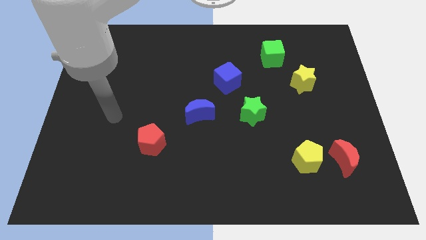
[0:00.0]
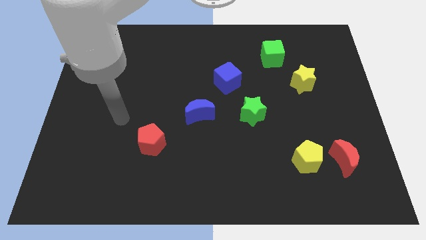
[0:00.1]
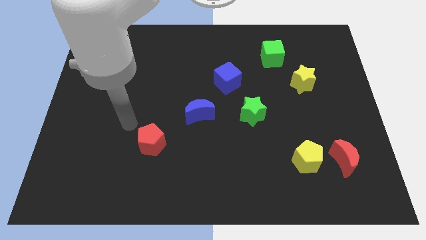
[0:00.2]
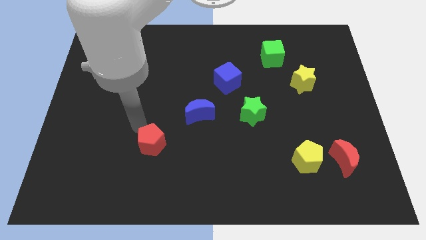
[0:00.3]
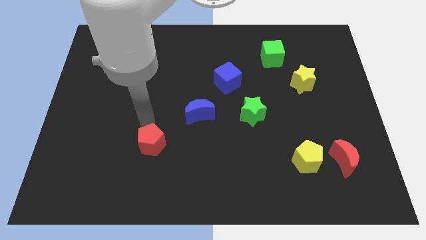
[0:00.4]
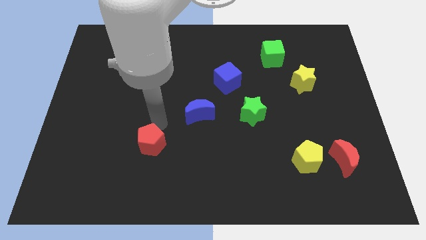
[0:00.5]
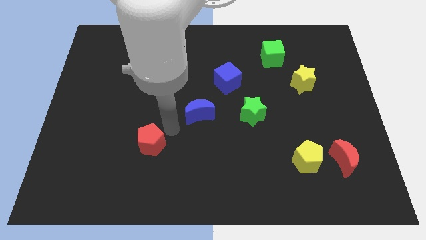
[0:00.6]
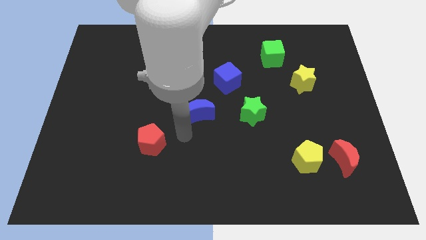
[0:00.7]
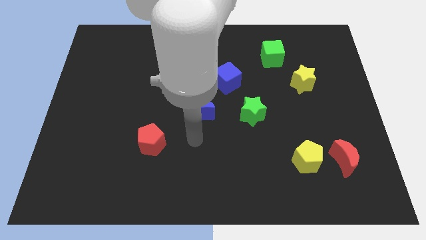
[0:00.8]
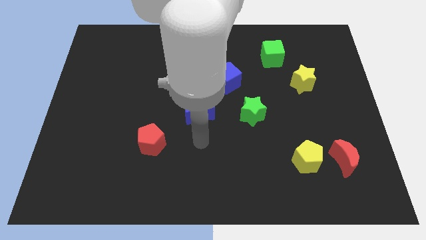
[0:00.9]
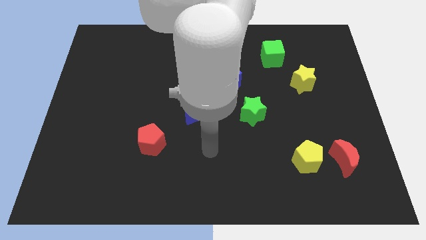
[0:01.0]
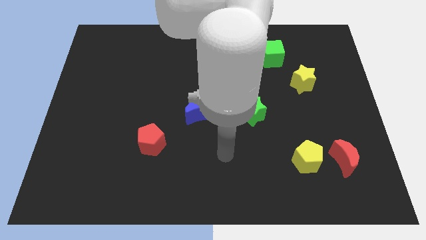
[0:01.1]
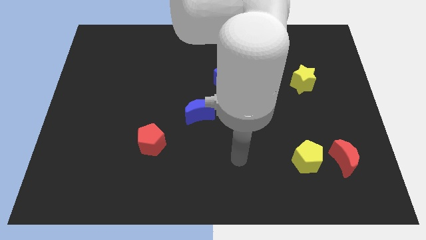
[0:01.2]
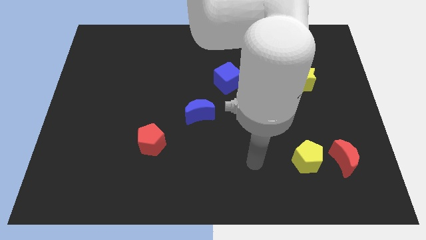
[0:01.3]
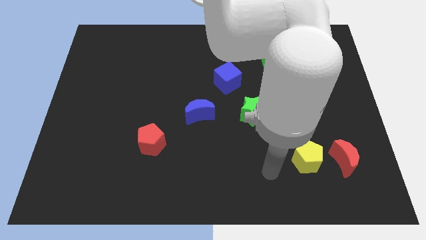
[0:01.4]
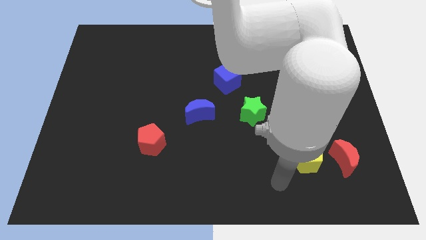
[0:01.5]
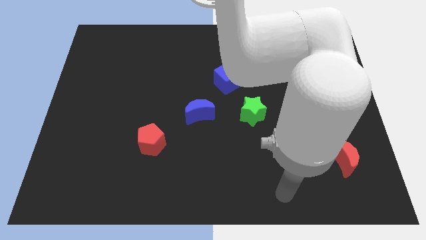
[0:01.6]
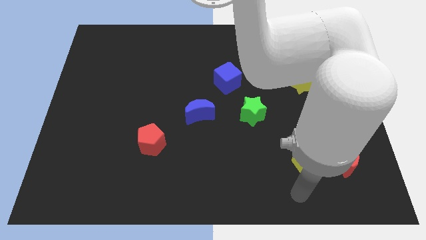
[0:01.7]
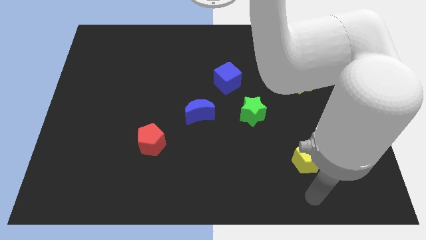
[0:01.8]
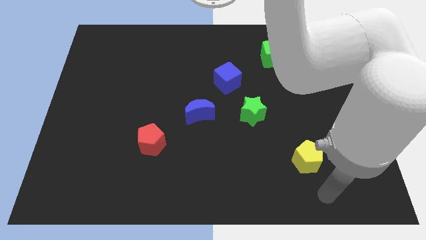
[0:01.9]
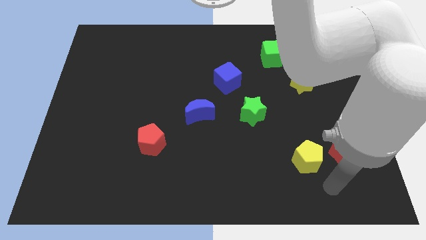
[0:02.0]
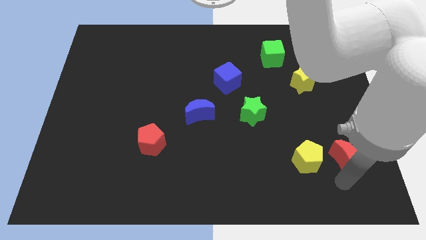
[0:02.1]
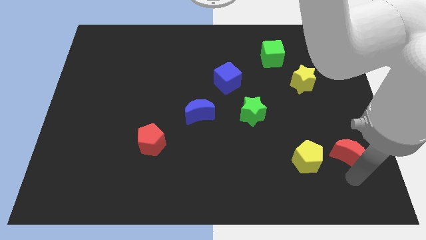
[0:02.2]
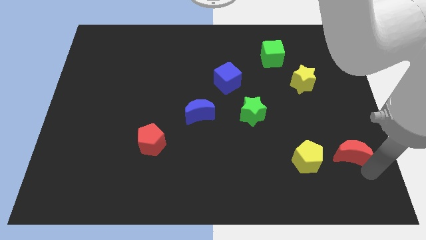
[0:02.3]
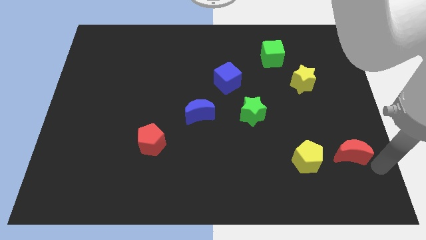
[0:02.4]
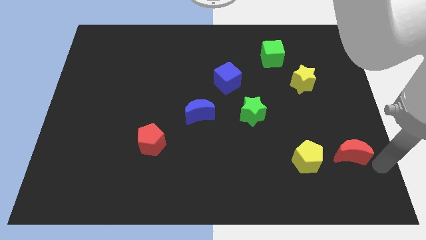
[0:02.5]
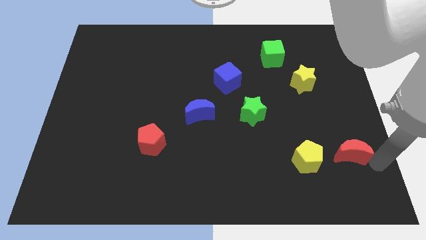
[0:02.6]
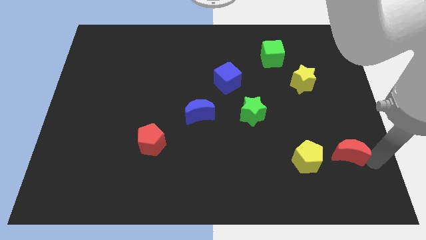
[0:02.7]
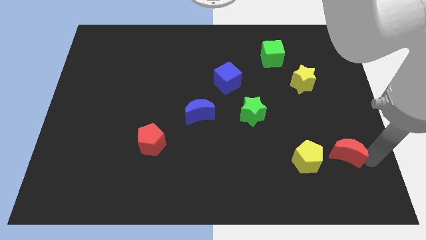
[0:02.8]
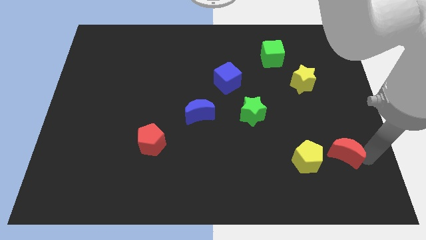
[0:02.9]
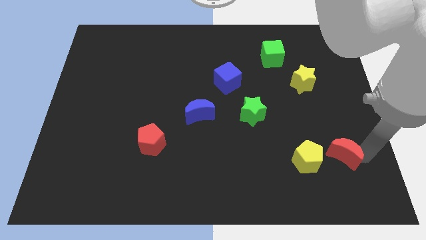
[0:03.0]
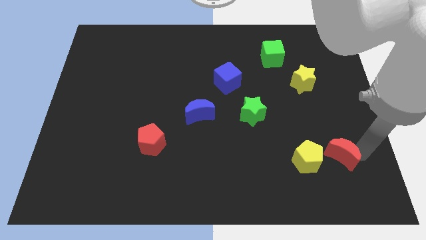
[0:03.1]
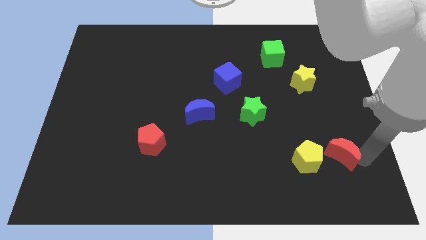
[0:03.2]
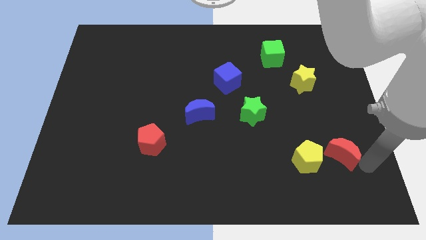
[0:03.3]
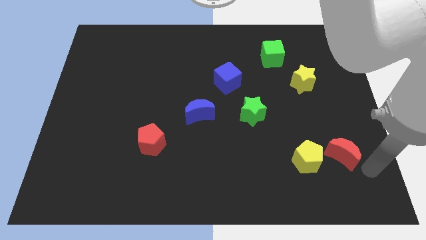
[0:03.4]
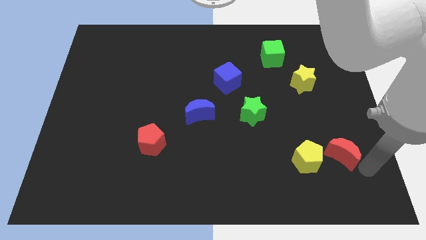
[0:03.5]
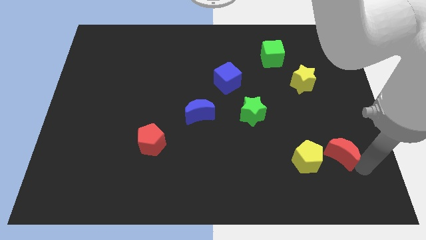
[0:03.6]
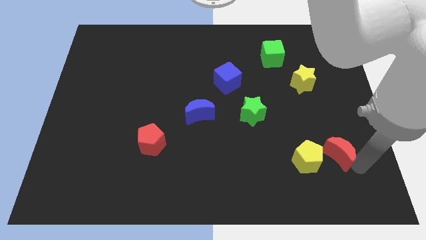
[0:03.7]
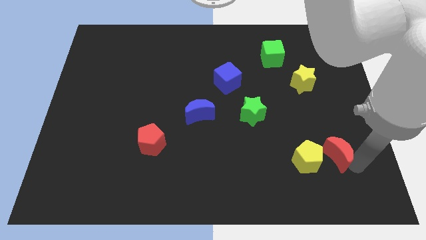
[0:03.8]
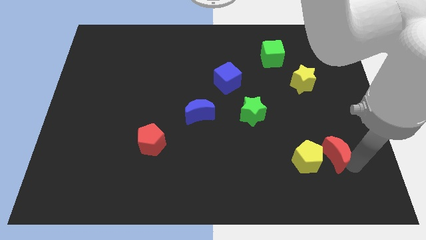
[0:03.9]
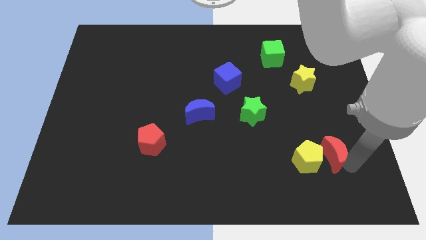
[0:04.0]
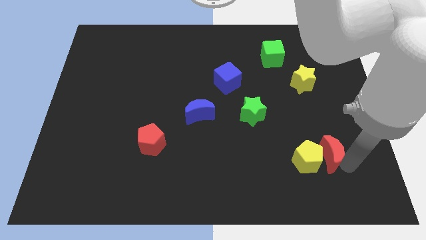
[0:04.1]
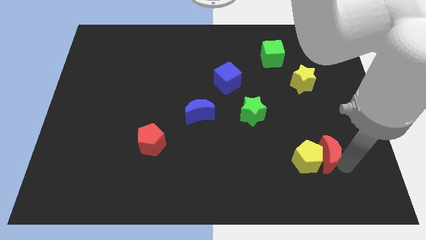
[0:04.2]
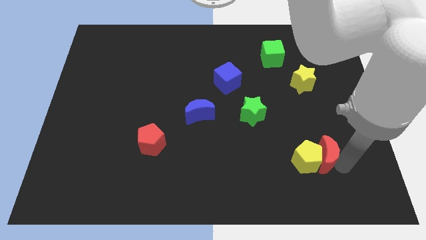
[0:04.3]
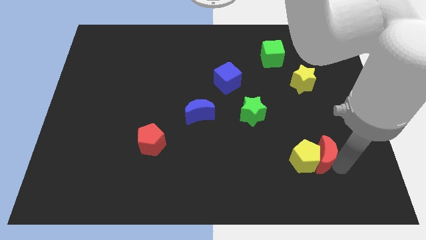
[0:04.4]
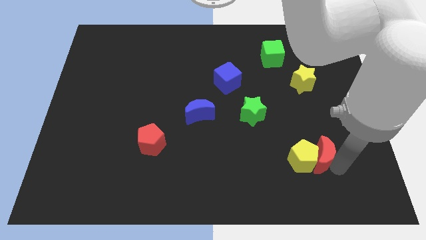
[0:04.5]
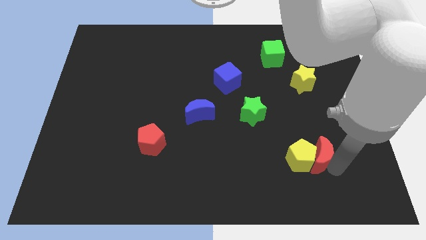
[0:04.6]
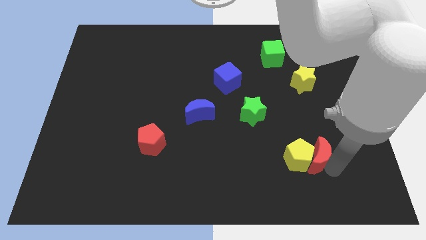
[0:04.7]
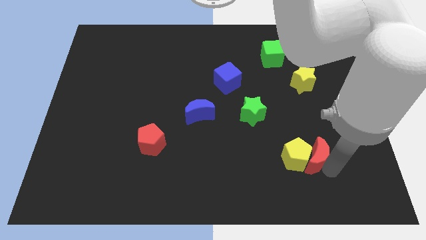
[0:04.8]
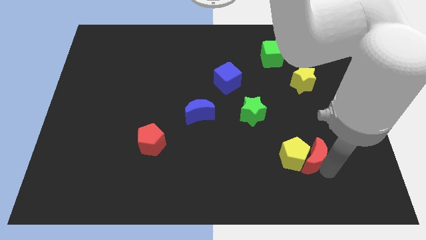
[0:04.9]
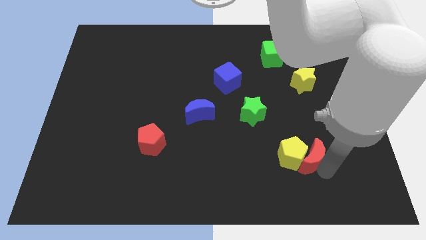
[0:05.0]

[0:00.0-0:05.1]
push the red moon somewhat left

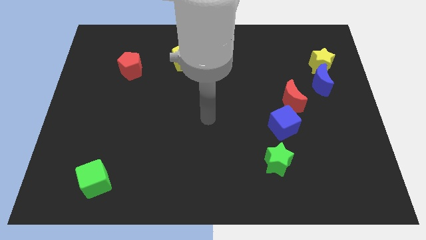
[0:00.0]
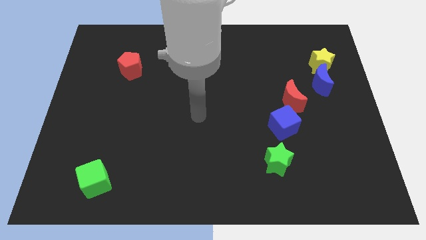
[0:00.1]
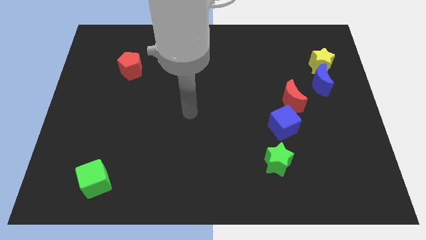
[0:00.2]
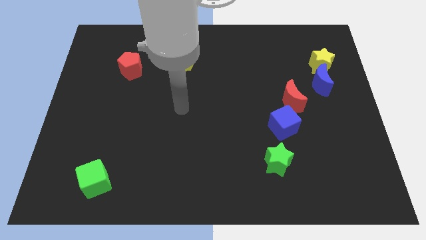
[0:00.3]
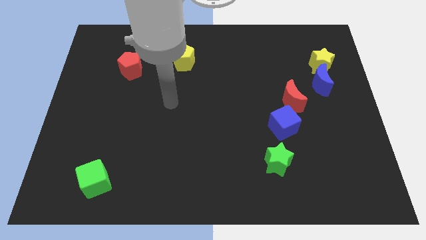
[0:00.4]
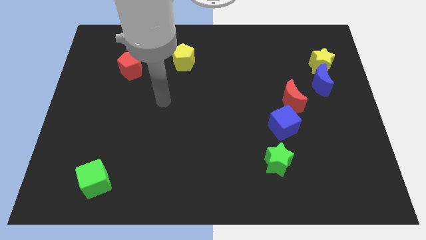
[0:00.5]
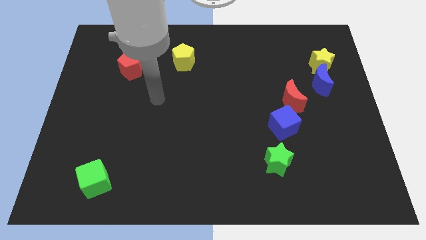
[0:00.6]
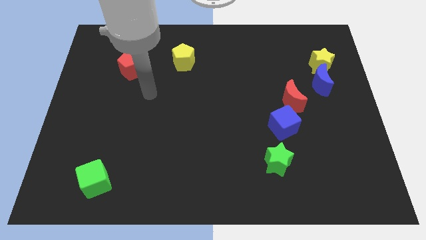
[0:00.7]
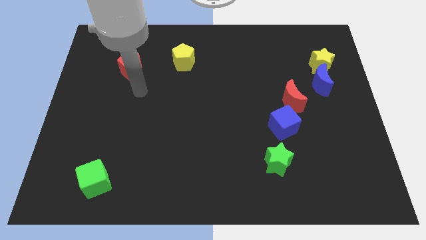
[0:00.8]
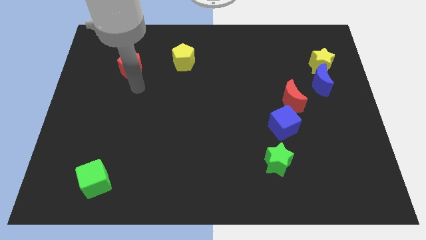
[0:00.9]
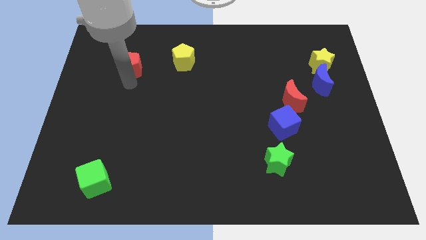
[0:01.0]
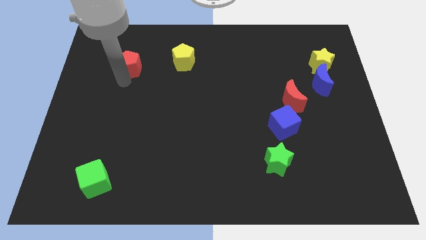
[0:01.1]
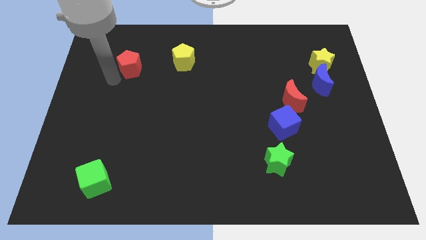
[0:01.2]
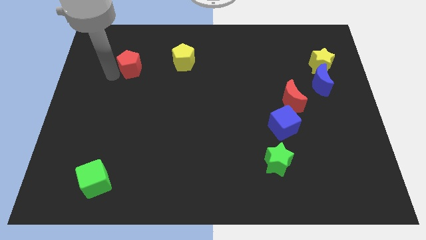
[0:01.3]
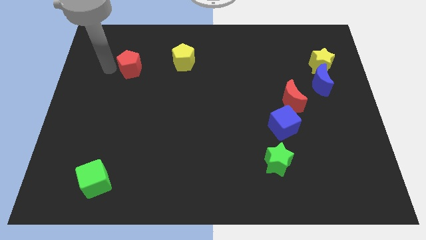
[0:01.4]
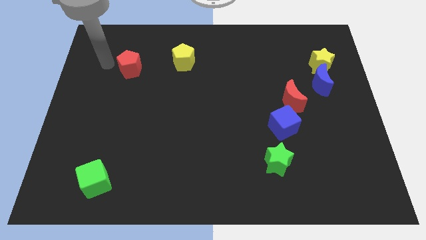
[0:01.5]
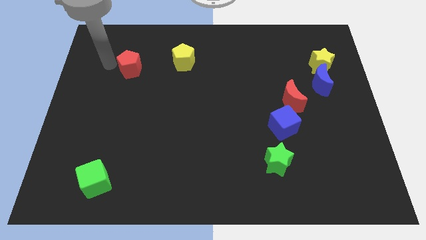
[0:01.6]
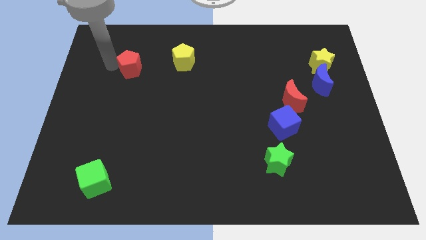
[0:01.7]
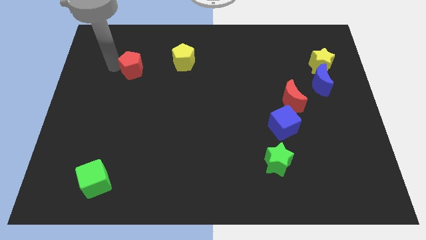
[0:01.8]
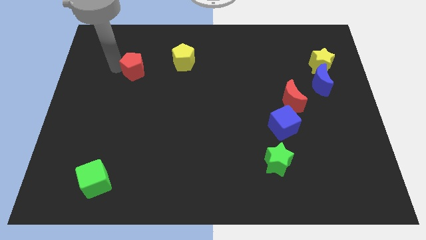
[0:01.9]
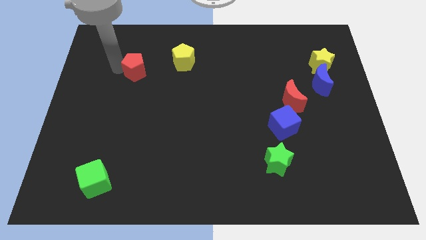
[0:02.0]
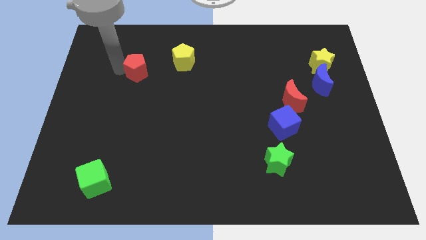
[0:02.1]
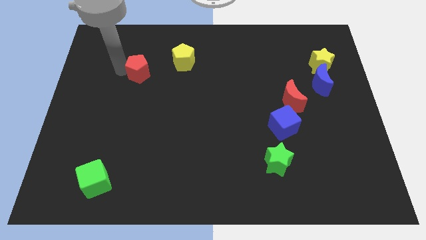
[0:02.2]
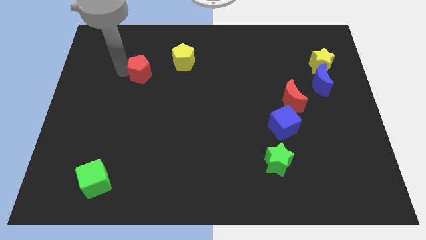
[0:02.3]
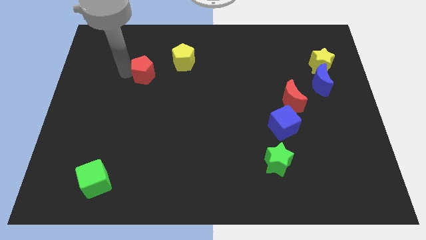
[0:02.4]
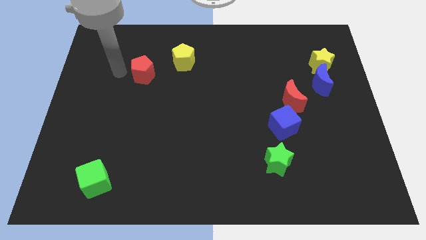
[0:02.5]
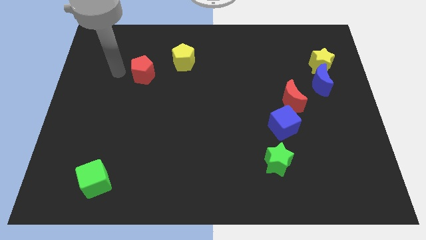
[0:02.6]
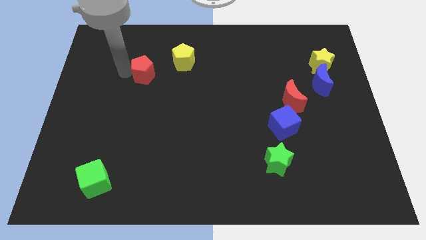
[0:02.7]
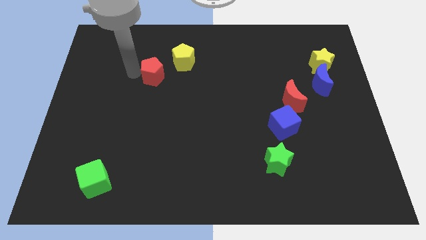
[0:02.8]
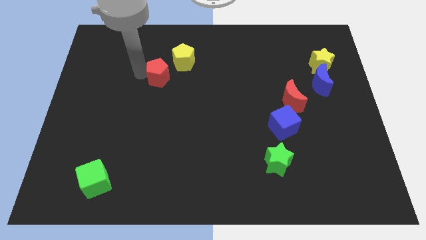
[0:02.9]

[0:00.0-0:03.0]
slightly slide the red pentagon right
